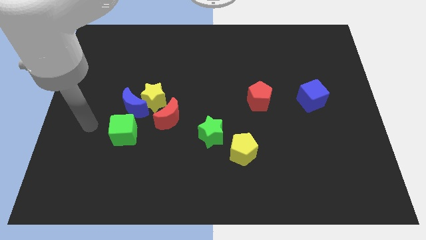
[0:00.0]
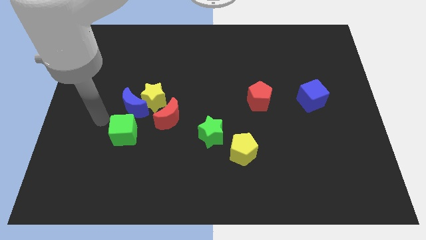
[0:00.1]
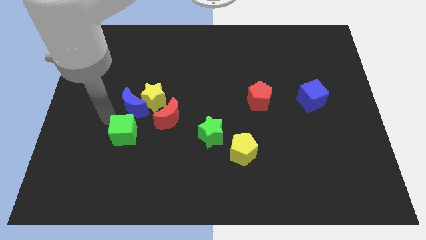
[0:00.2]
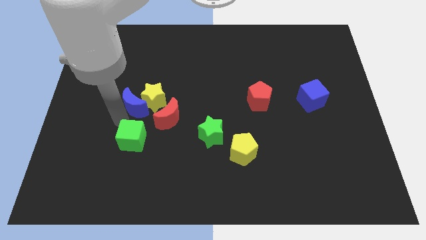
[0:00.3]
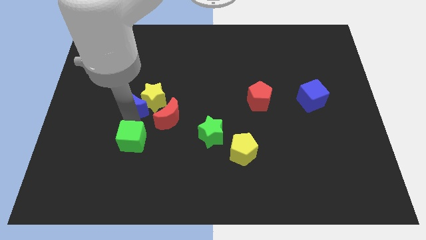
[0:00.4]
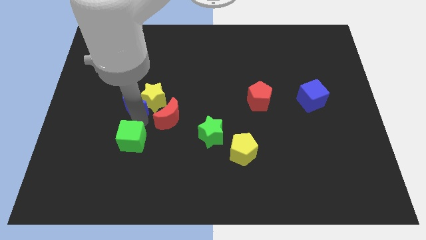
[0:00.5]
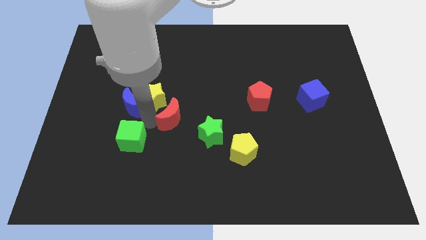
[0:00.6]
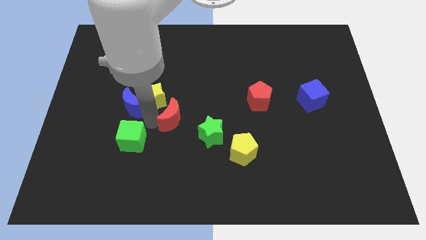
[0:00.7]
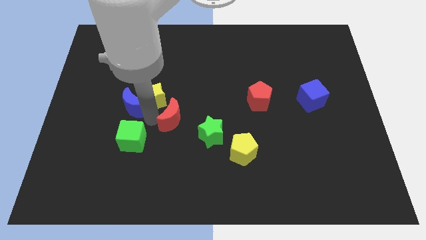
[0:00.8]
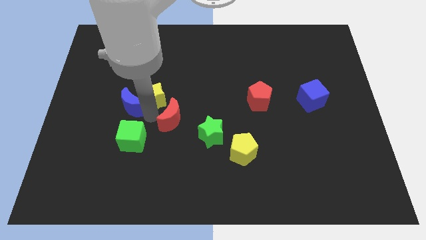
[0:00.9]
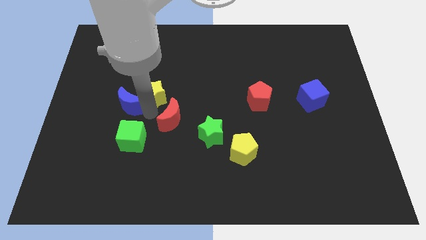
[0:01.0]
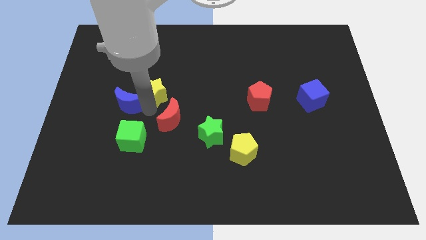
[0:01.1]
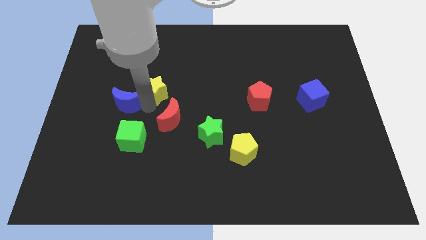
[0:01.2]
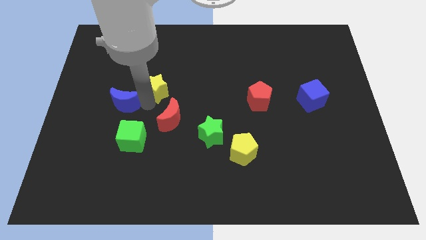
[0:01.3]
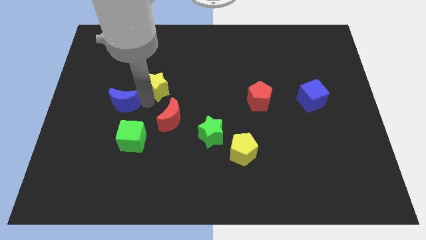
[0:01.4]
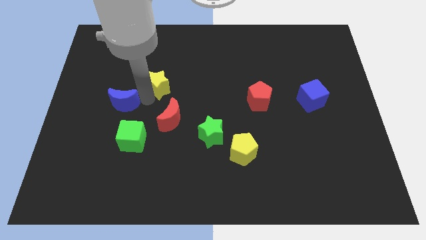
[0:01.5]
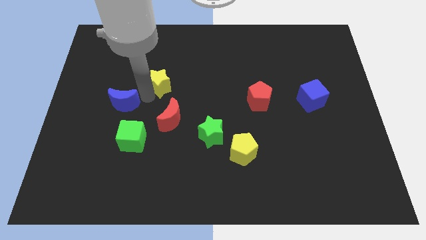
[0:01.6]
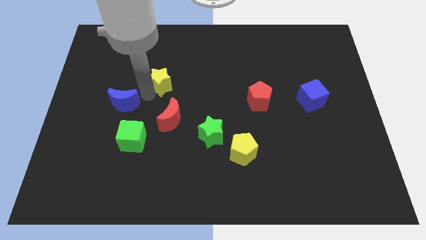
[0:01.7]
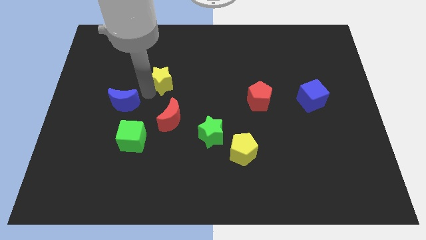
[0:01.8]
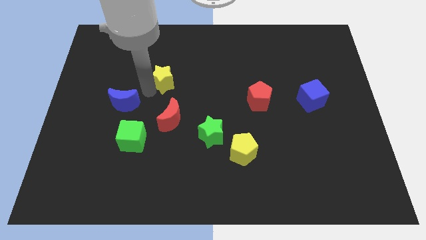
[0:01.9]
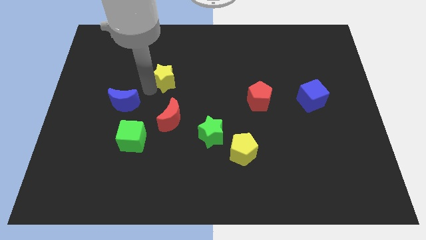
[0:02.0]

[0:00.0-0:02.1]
pull the yellow star apart from the blue moon and red moon

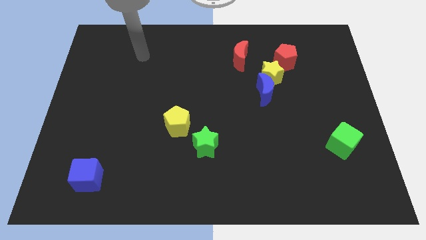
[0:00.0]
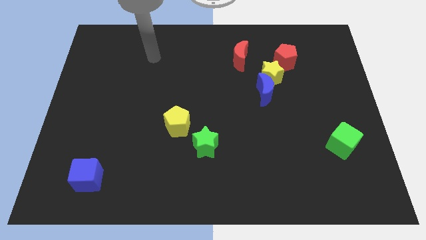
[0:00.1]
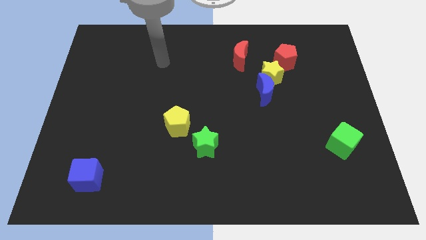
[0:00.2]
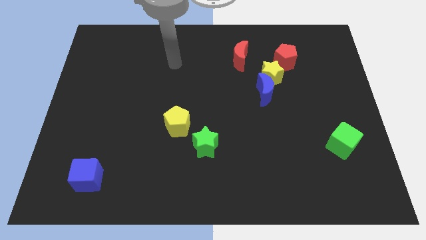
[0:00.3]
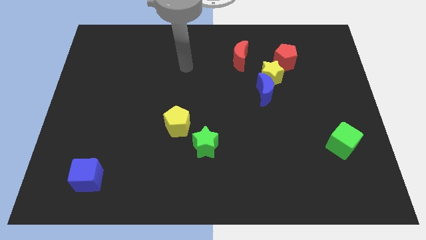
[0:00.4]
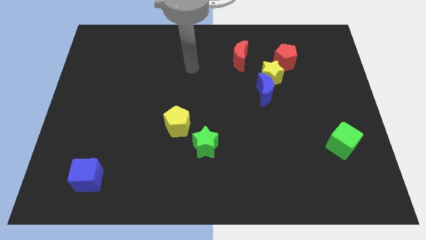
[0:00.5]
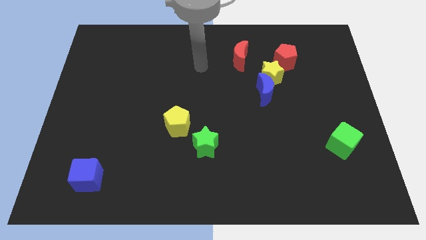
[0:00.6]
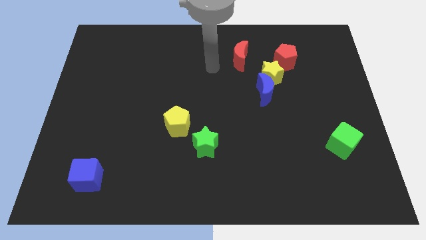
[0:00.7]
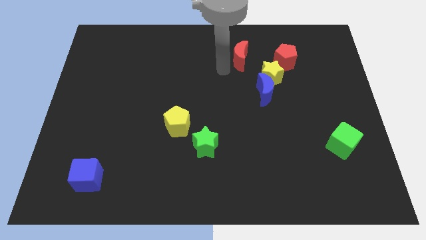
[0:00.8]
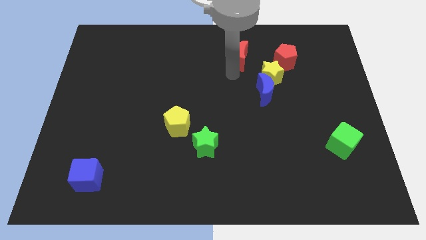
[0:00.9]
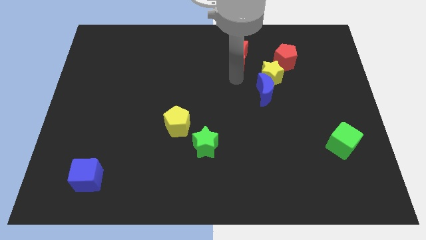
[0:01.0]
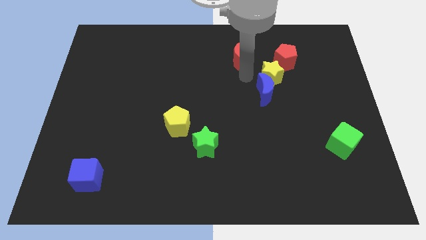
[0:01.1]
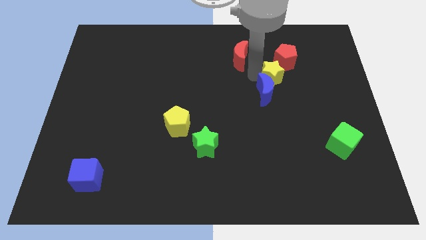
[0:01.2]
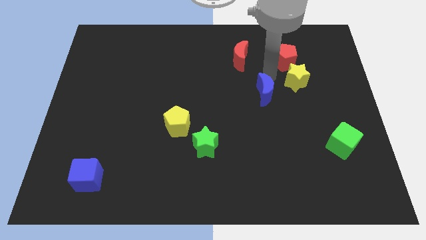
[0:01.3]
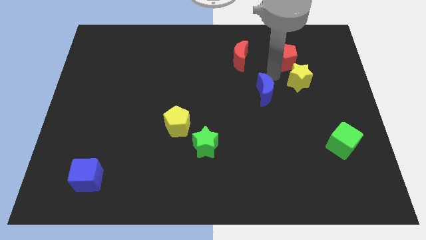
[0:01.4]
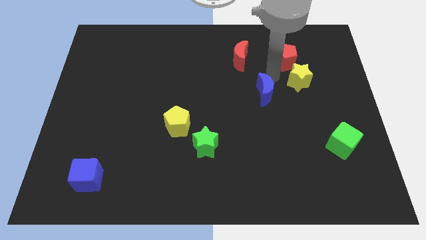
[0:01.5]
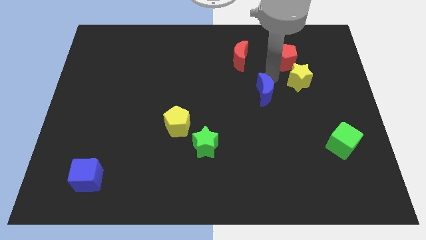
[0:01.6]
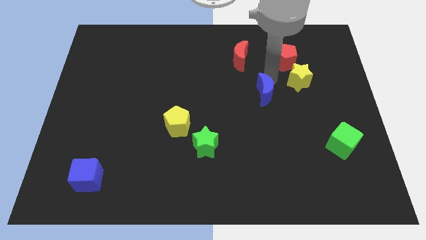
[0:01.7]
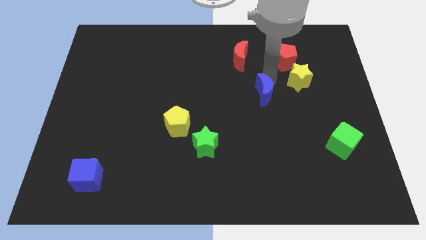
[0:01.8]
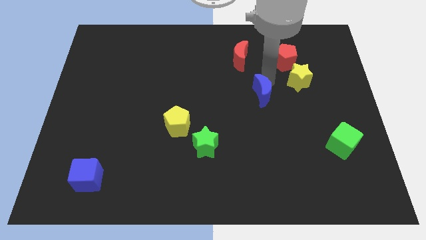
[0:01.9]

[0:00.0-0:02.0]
separate the blue moon from the yellow star

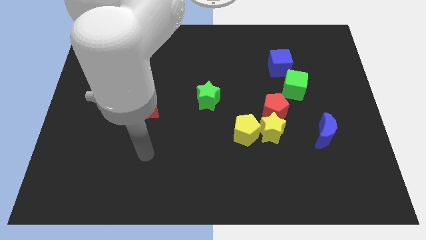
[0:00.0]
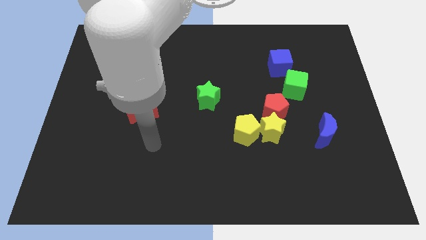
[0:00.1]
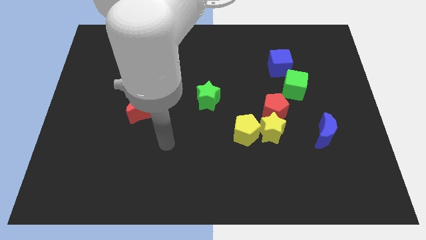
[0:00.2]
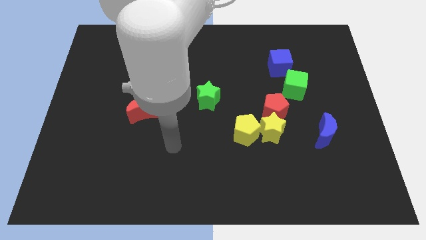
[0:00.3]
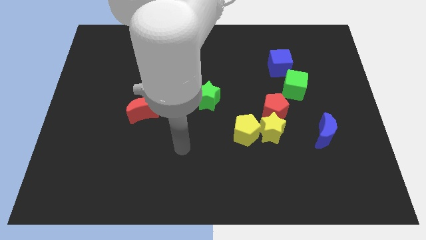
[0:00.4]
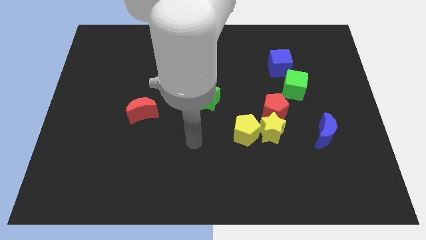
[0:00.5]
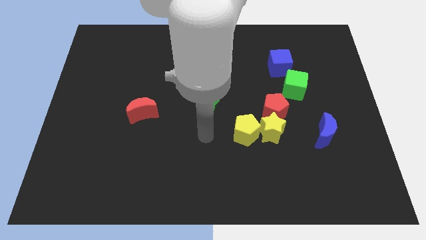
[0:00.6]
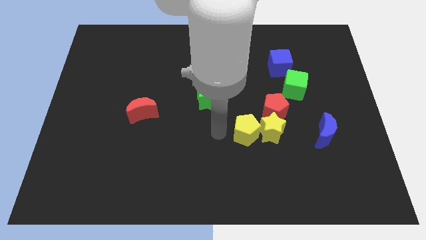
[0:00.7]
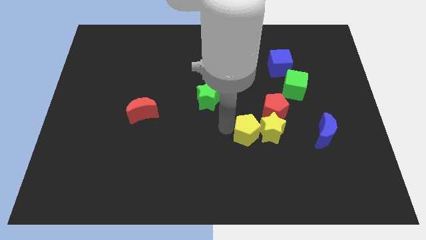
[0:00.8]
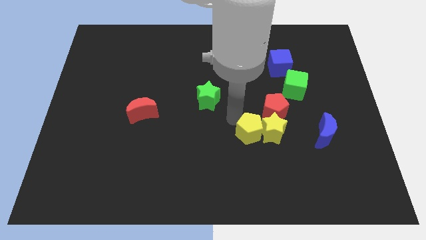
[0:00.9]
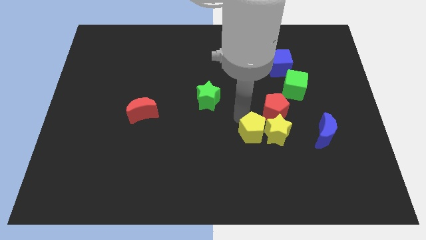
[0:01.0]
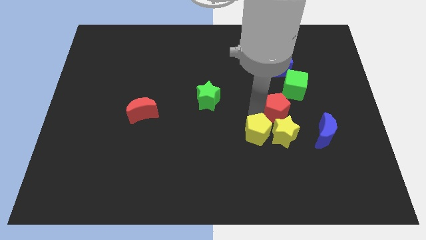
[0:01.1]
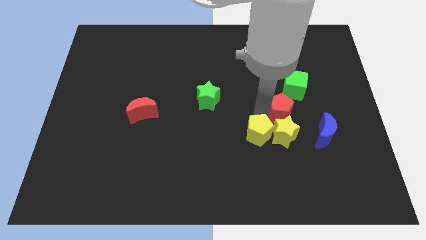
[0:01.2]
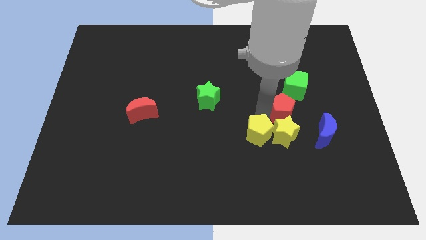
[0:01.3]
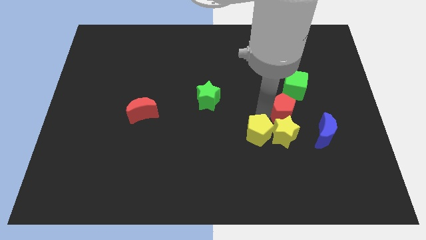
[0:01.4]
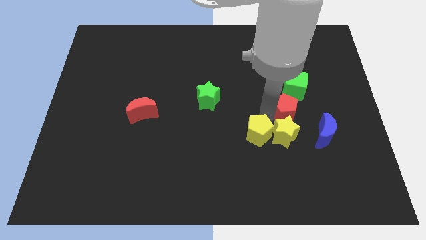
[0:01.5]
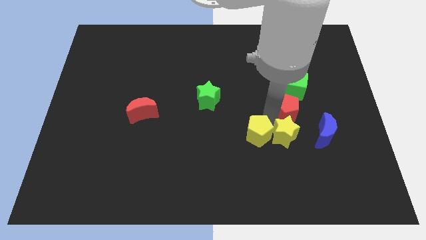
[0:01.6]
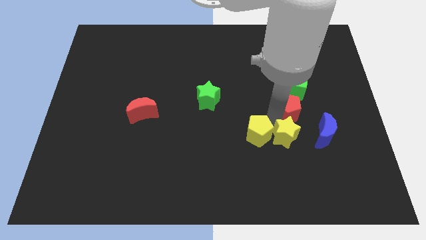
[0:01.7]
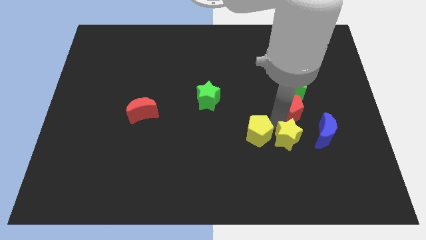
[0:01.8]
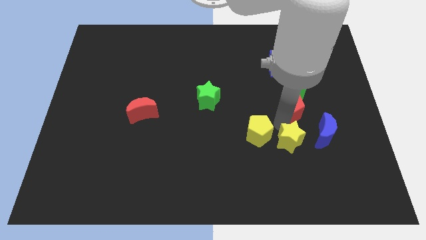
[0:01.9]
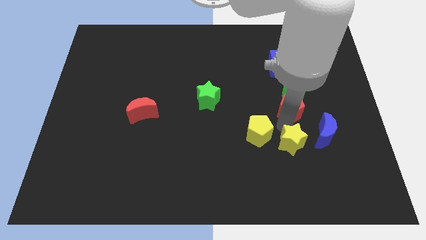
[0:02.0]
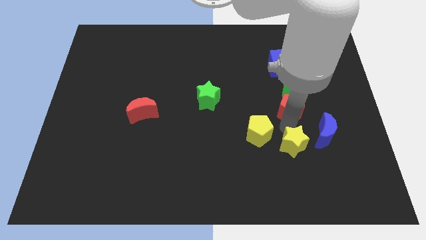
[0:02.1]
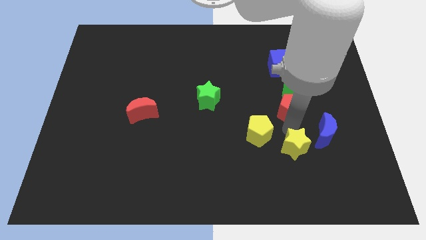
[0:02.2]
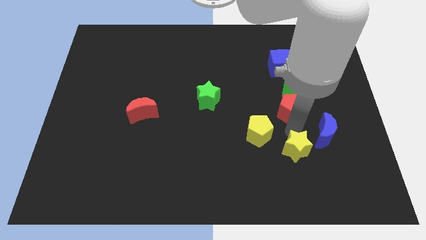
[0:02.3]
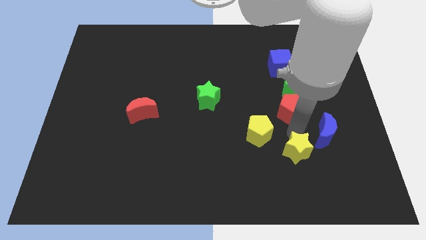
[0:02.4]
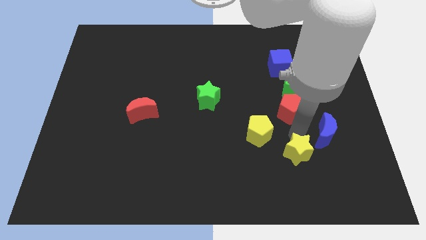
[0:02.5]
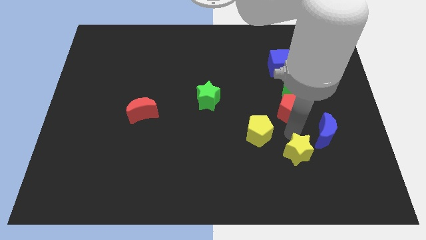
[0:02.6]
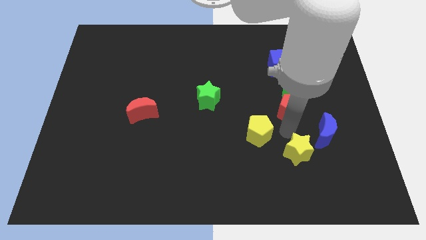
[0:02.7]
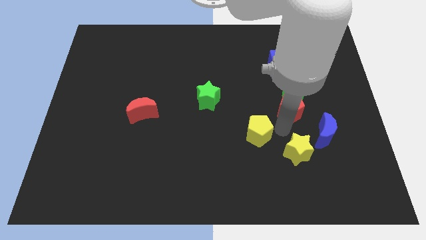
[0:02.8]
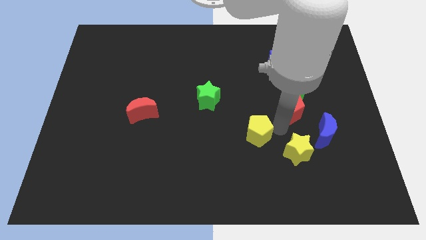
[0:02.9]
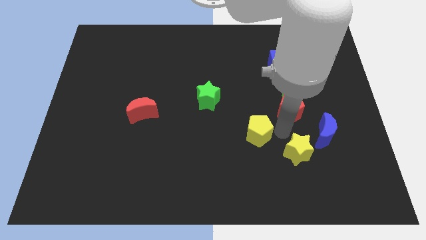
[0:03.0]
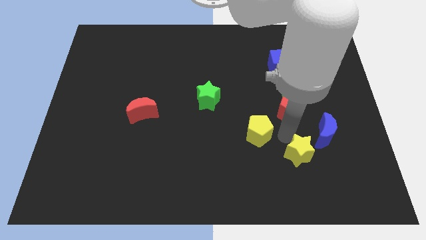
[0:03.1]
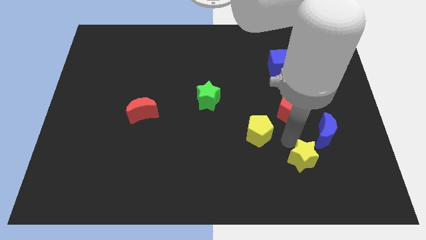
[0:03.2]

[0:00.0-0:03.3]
separate the yellow star from the yellow pentagon and red pentagon

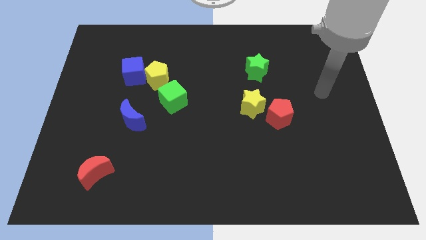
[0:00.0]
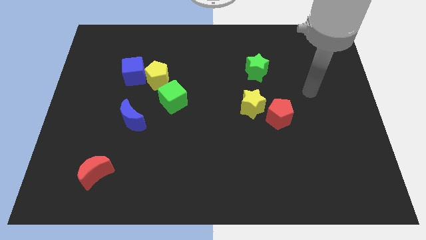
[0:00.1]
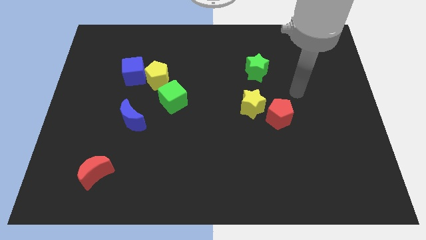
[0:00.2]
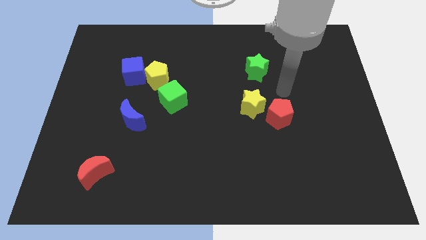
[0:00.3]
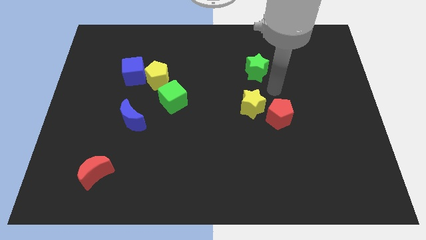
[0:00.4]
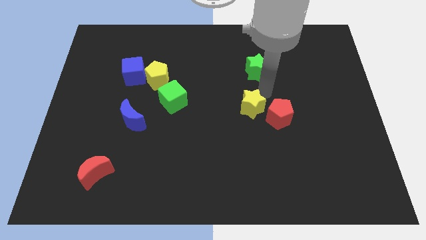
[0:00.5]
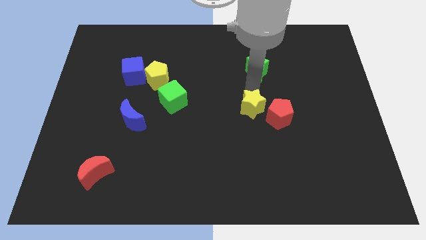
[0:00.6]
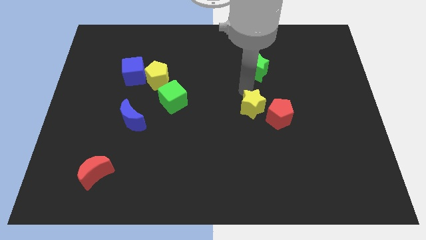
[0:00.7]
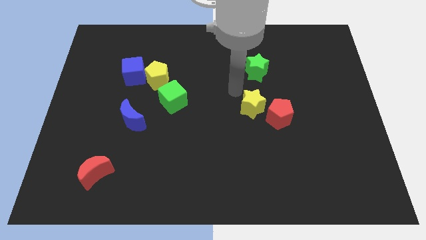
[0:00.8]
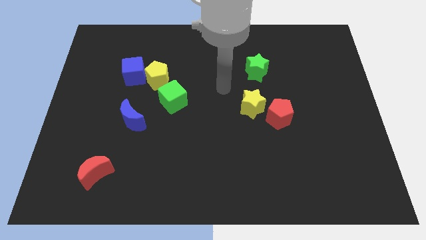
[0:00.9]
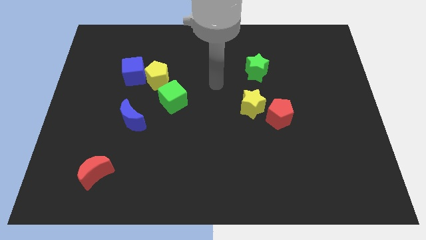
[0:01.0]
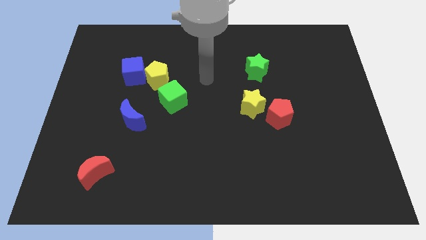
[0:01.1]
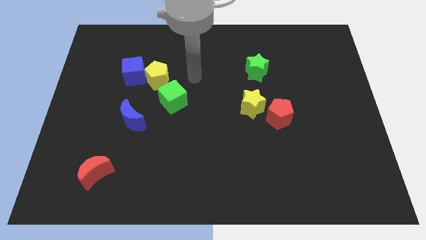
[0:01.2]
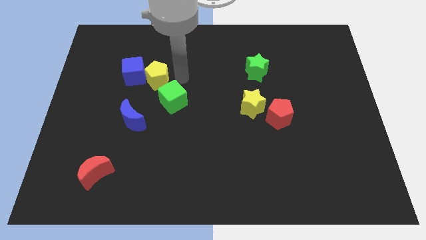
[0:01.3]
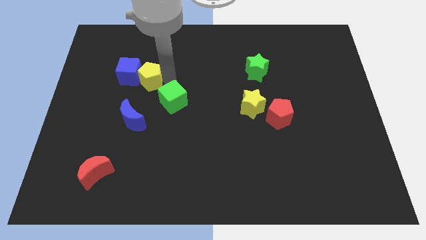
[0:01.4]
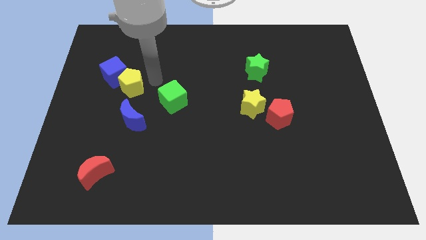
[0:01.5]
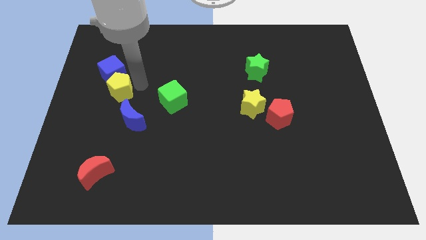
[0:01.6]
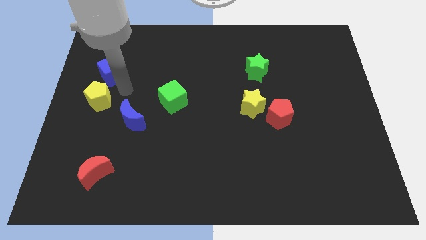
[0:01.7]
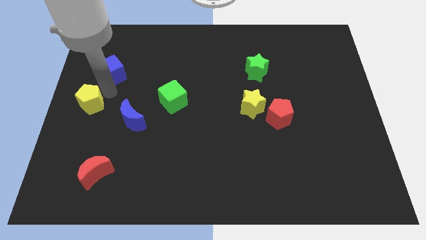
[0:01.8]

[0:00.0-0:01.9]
separate the blue cube from the yellow pentagon
